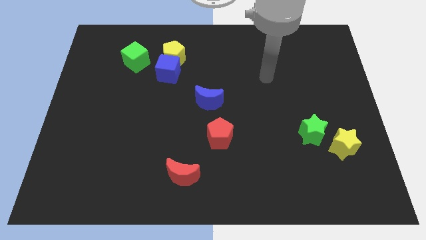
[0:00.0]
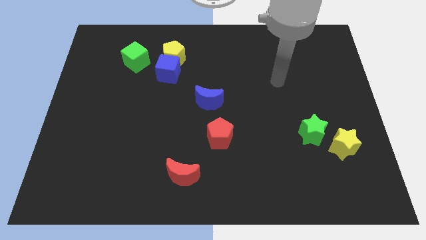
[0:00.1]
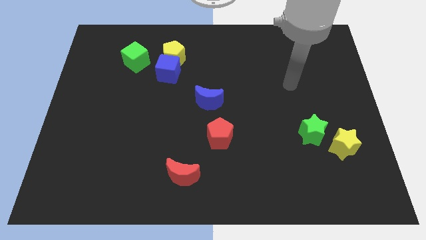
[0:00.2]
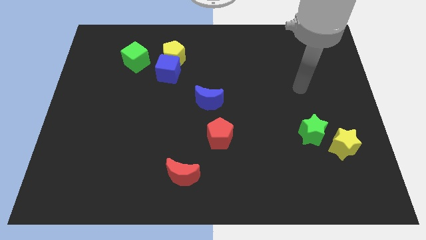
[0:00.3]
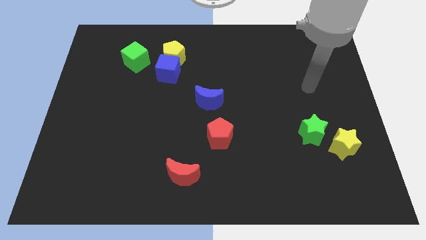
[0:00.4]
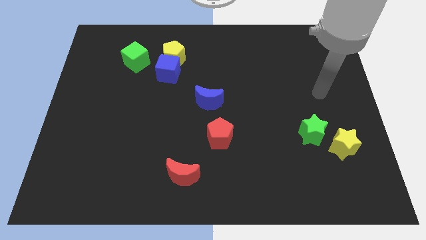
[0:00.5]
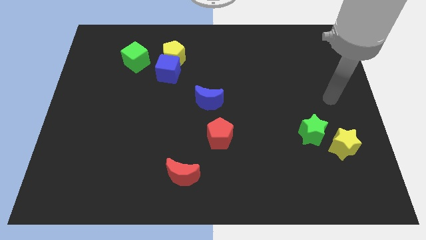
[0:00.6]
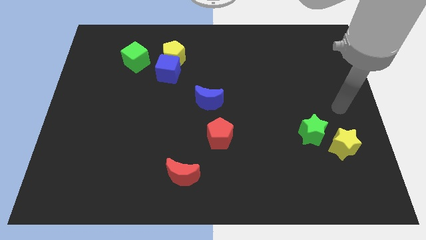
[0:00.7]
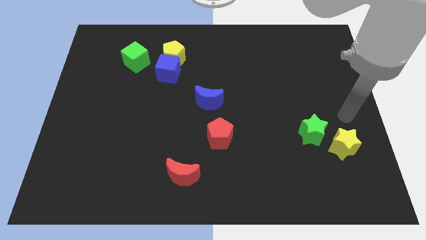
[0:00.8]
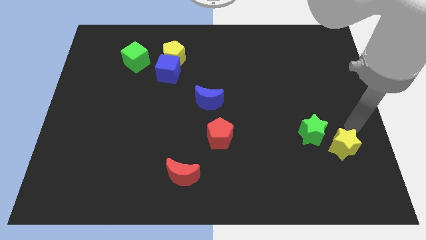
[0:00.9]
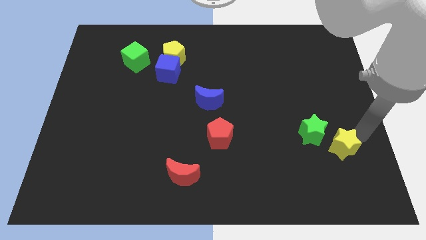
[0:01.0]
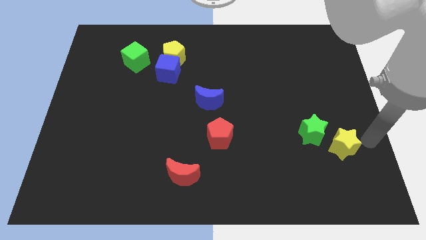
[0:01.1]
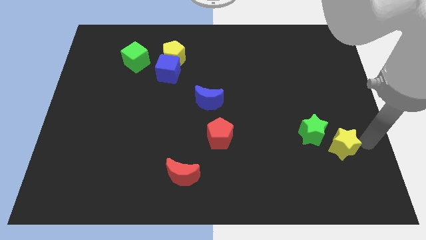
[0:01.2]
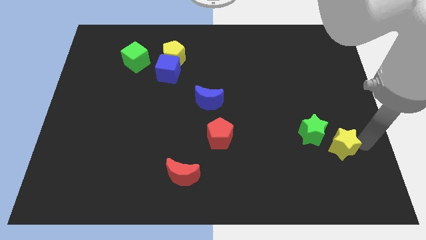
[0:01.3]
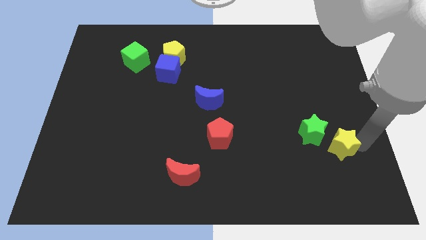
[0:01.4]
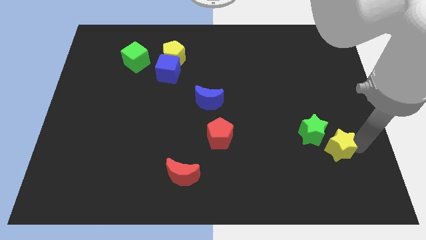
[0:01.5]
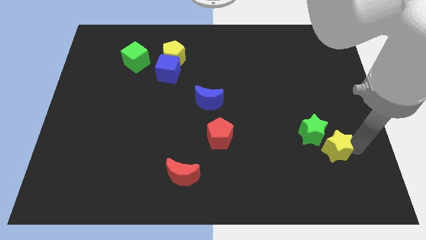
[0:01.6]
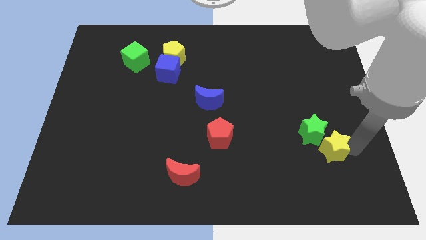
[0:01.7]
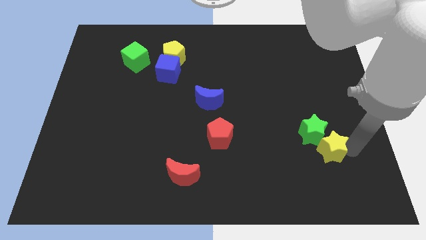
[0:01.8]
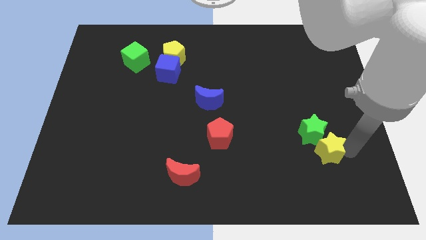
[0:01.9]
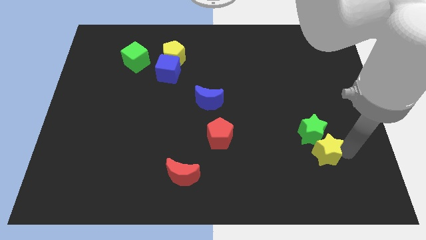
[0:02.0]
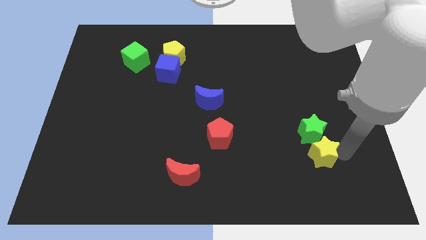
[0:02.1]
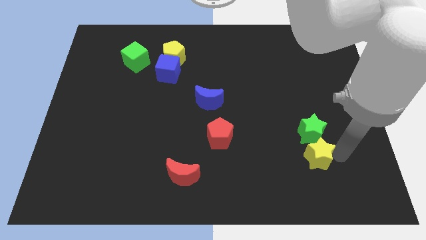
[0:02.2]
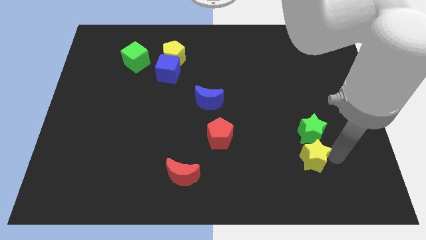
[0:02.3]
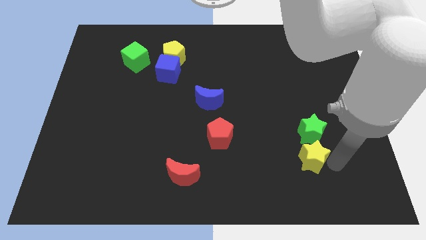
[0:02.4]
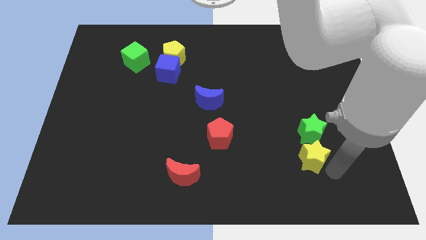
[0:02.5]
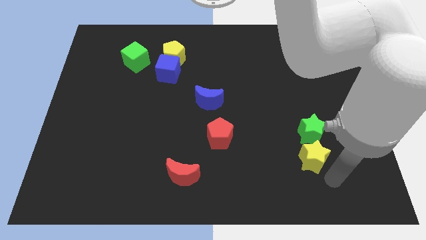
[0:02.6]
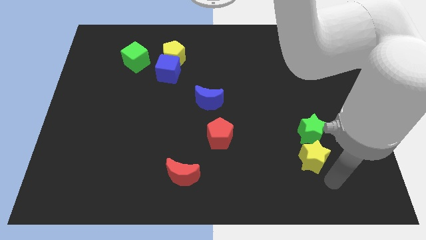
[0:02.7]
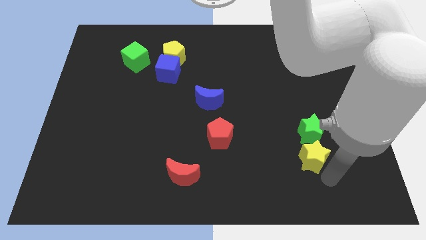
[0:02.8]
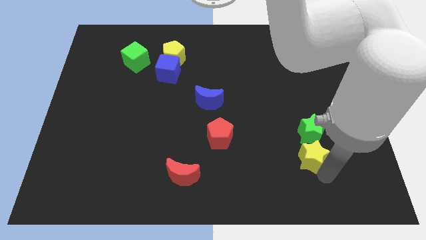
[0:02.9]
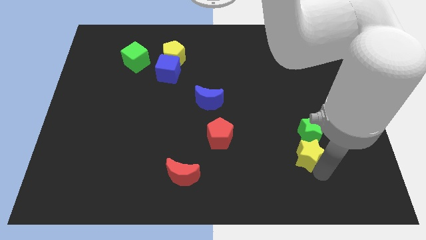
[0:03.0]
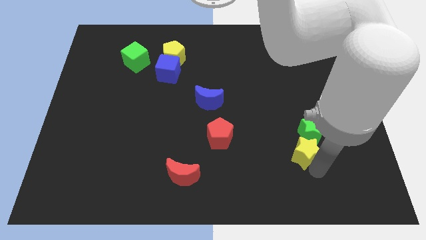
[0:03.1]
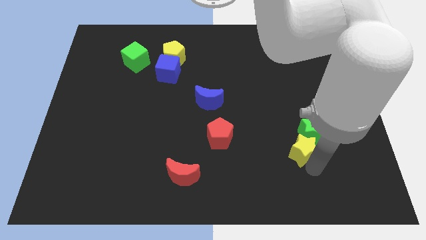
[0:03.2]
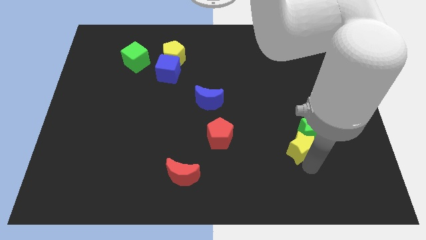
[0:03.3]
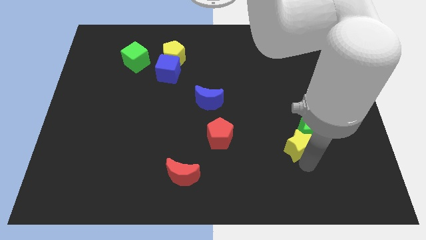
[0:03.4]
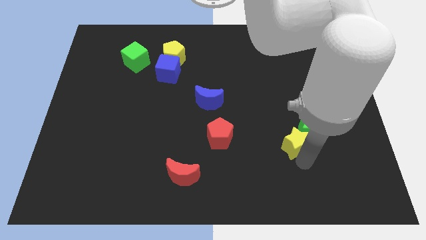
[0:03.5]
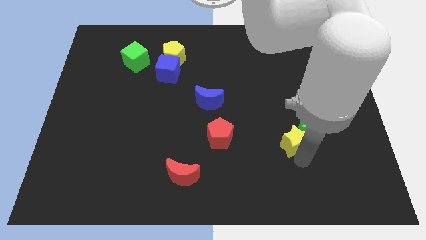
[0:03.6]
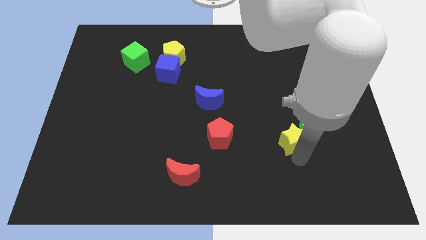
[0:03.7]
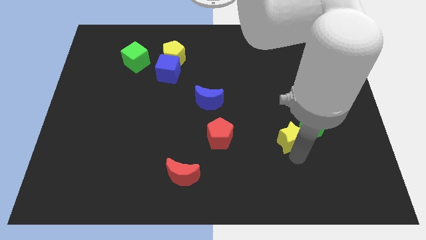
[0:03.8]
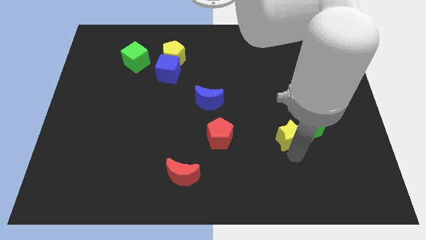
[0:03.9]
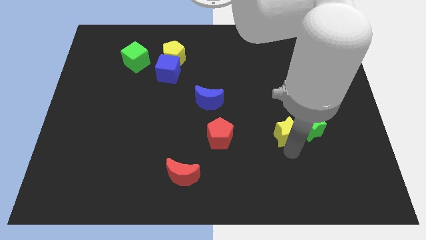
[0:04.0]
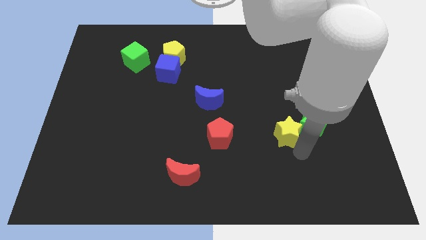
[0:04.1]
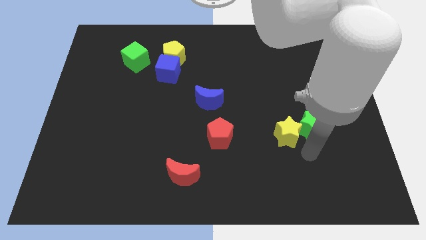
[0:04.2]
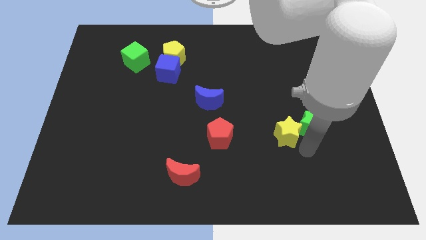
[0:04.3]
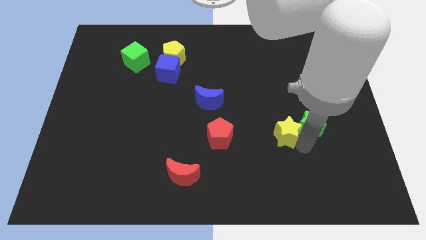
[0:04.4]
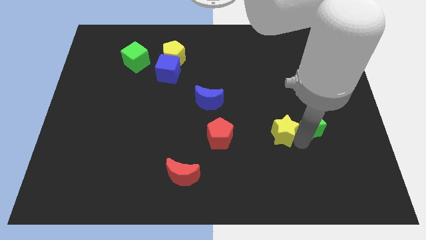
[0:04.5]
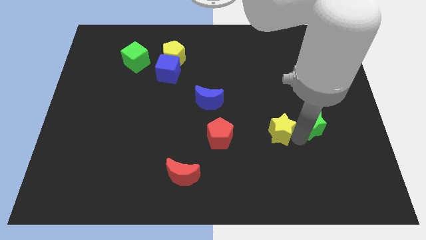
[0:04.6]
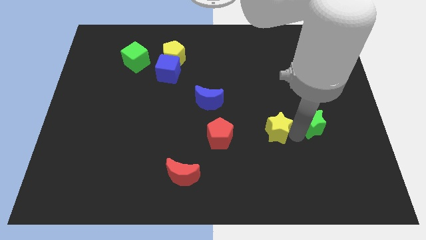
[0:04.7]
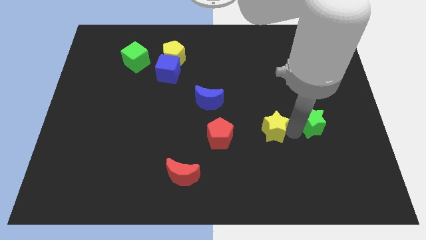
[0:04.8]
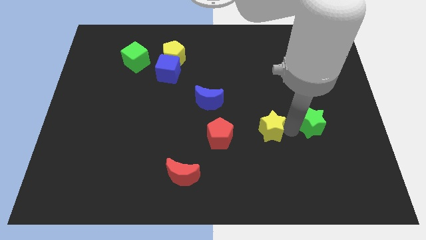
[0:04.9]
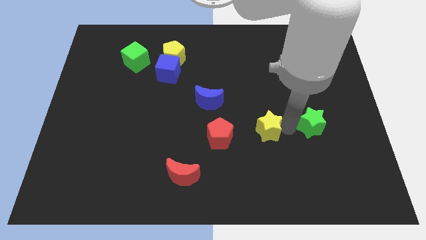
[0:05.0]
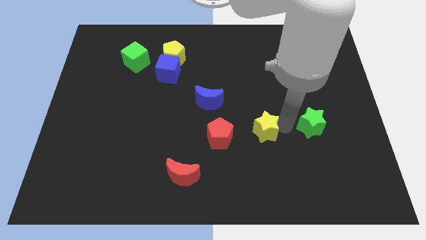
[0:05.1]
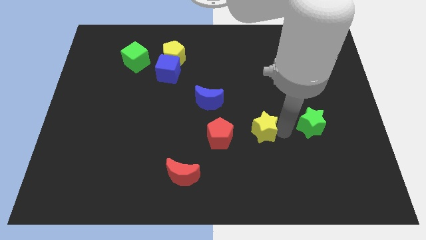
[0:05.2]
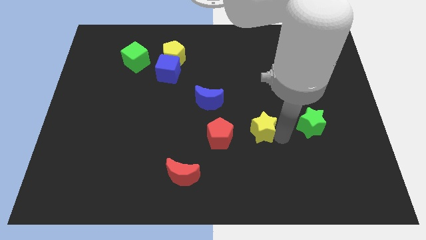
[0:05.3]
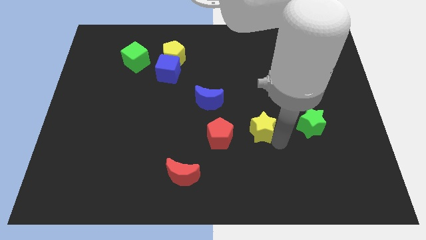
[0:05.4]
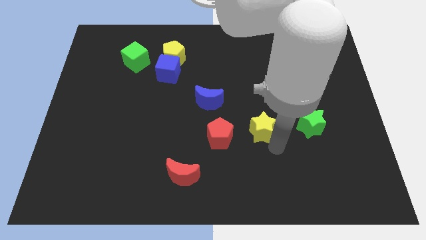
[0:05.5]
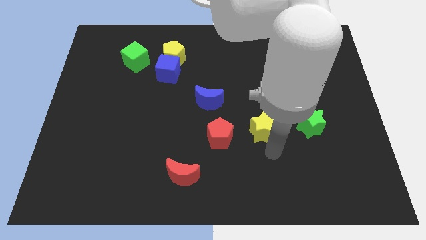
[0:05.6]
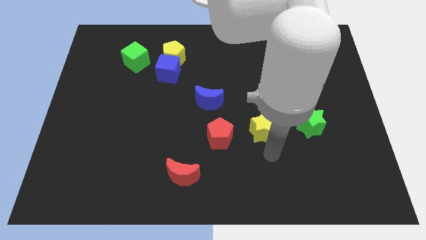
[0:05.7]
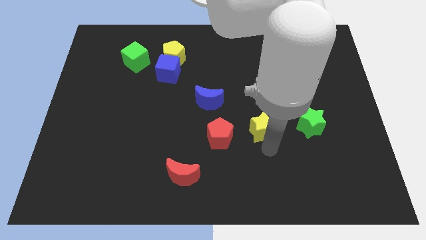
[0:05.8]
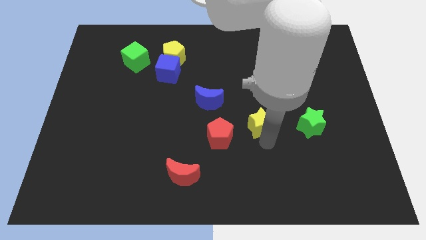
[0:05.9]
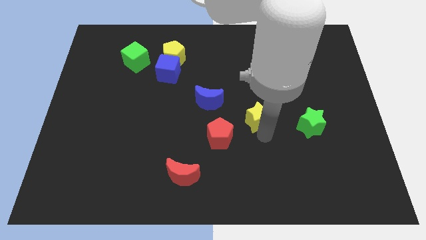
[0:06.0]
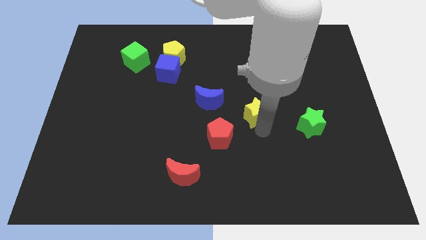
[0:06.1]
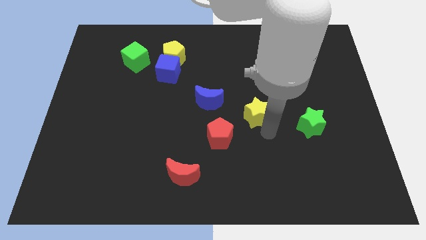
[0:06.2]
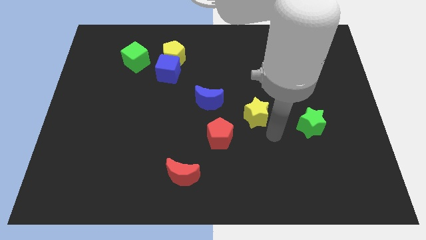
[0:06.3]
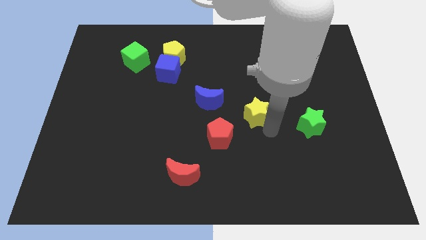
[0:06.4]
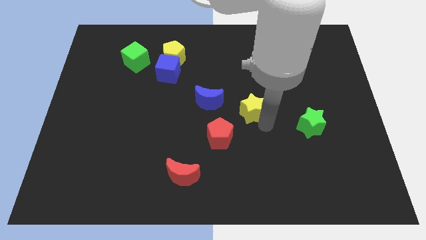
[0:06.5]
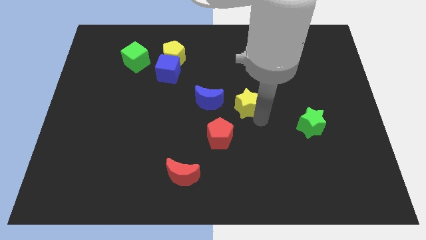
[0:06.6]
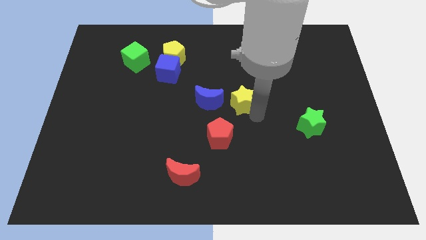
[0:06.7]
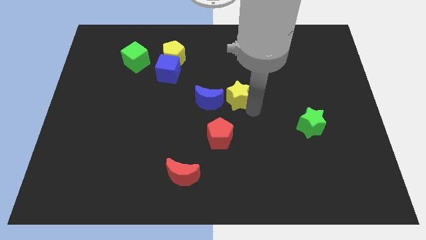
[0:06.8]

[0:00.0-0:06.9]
slide the yellow star to the top side of the red pentagon

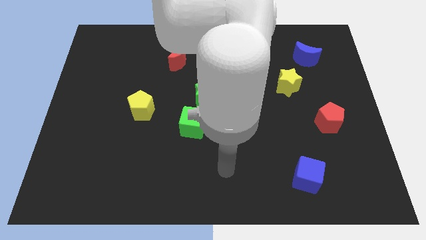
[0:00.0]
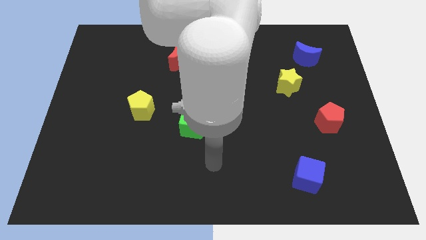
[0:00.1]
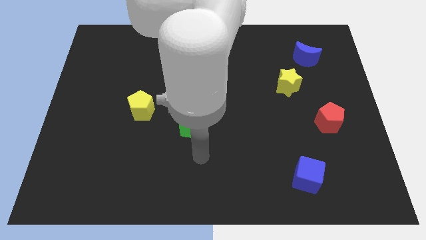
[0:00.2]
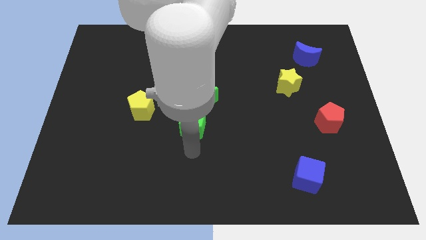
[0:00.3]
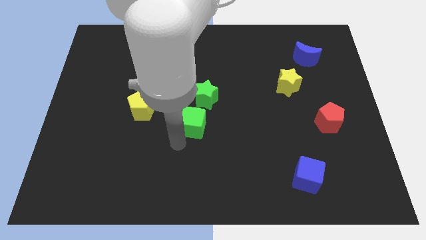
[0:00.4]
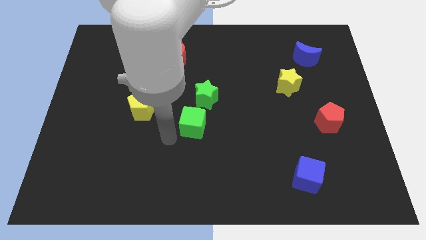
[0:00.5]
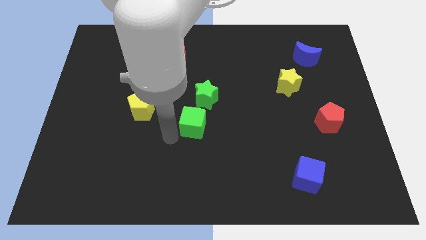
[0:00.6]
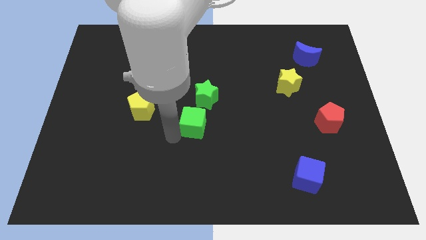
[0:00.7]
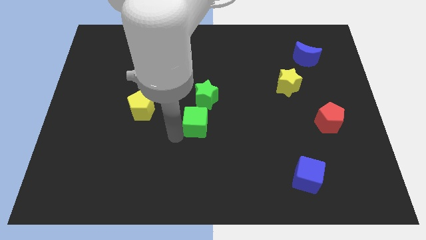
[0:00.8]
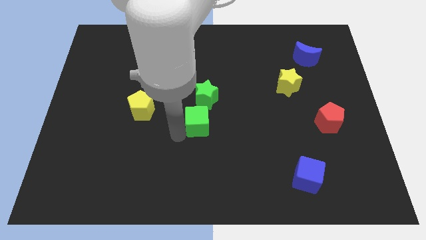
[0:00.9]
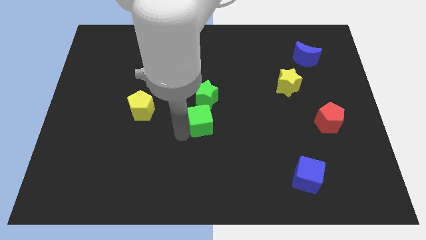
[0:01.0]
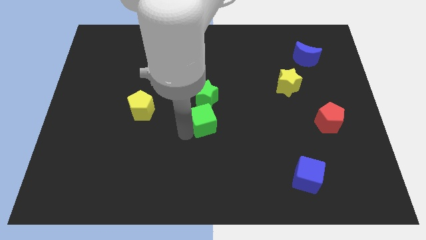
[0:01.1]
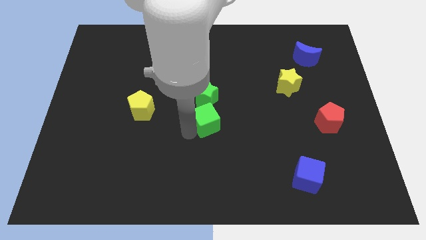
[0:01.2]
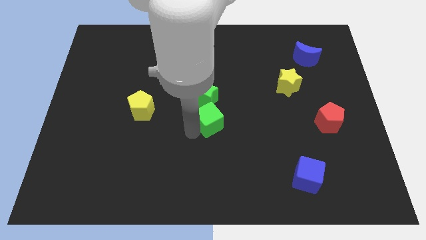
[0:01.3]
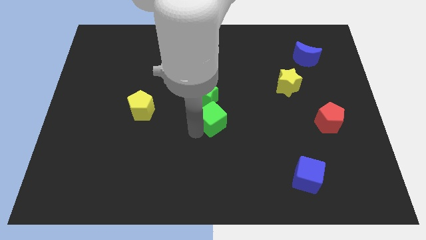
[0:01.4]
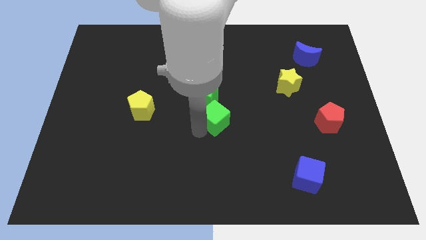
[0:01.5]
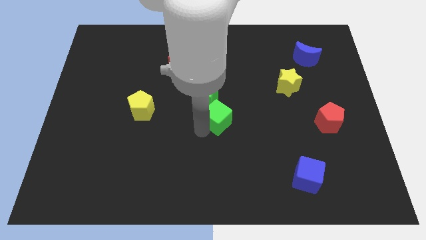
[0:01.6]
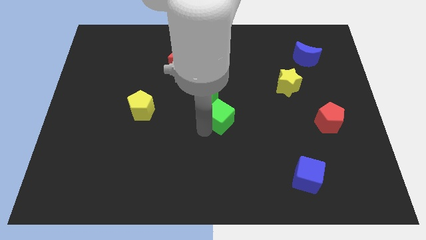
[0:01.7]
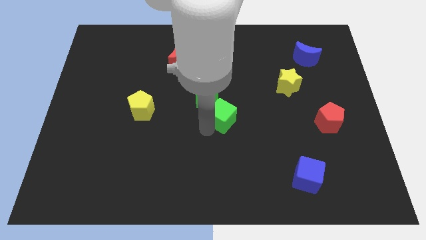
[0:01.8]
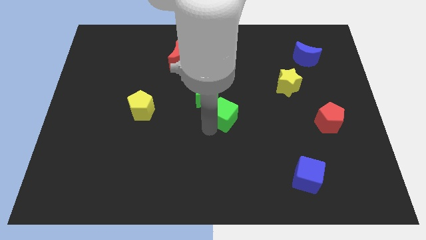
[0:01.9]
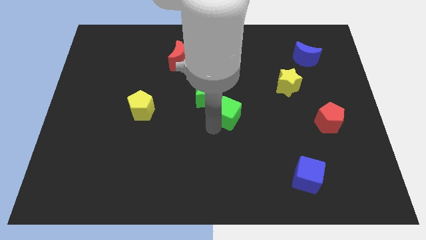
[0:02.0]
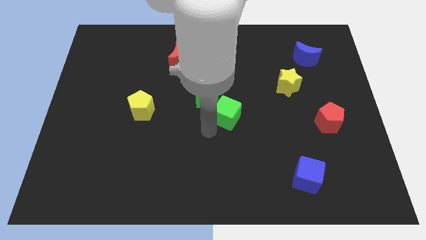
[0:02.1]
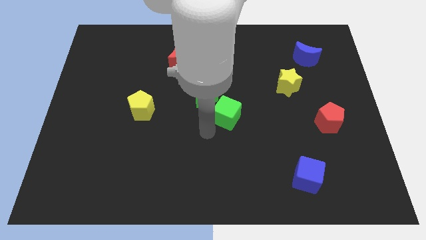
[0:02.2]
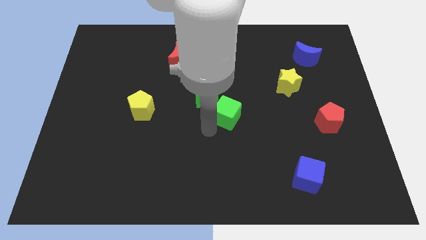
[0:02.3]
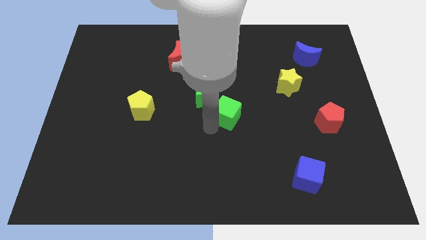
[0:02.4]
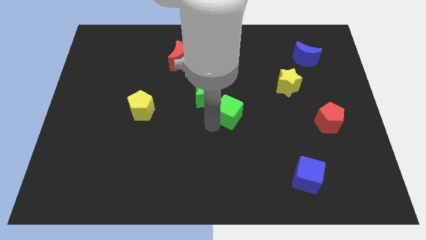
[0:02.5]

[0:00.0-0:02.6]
put the green cube to the right side of the green star
